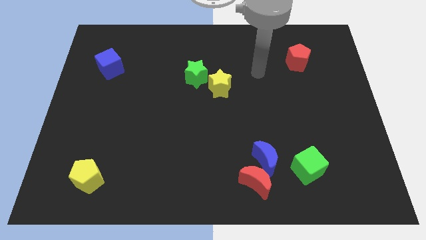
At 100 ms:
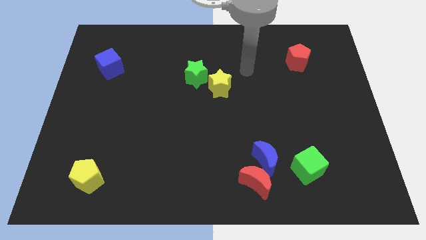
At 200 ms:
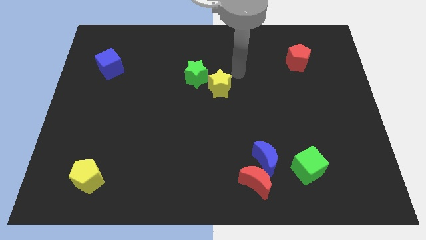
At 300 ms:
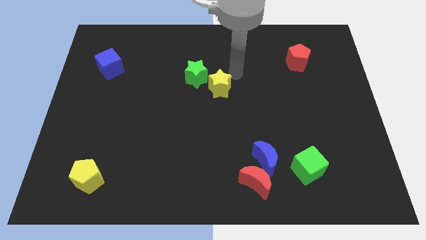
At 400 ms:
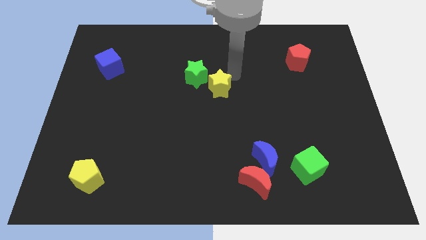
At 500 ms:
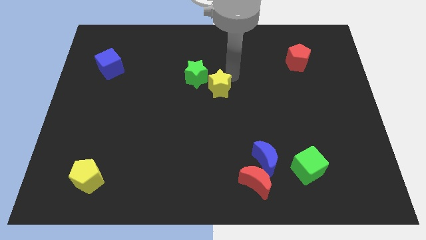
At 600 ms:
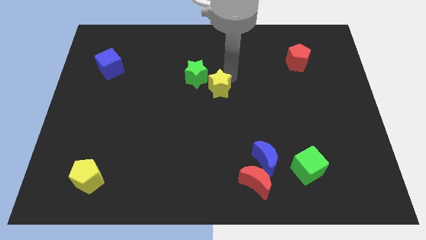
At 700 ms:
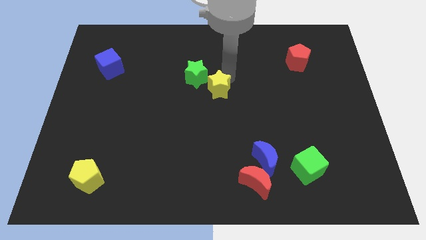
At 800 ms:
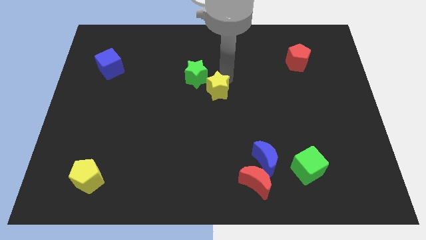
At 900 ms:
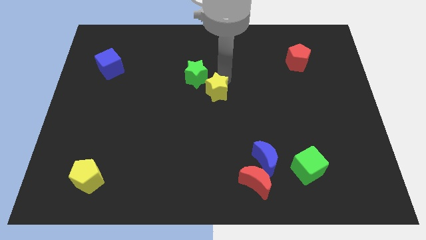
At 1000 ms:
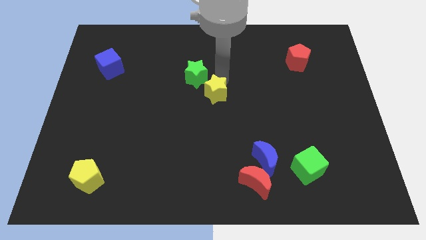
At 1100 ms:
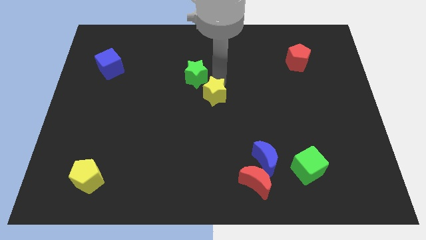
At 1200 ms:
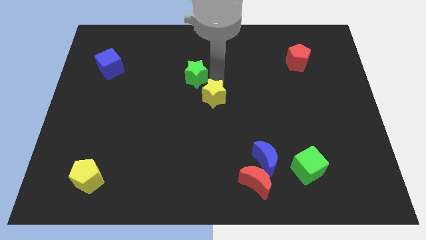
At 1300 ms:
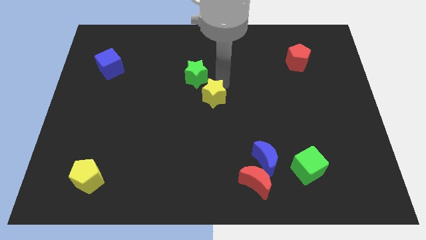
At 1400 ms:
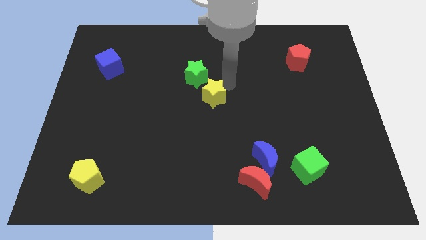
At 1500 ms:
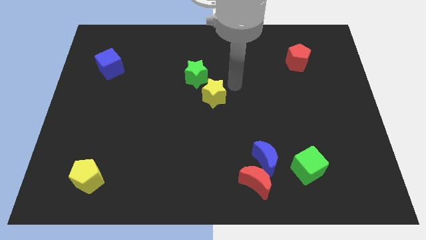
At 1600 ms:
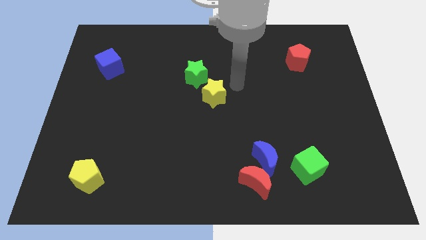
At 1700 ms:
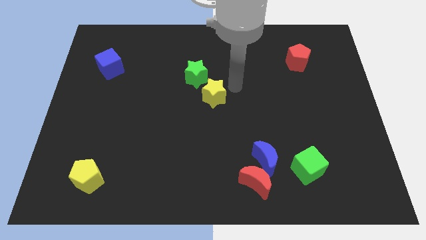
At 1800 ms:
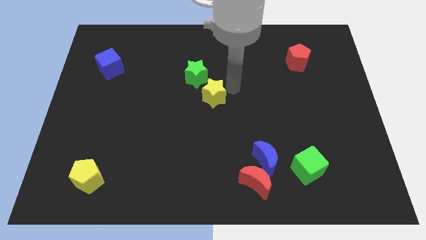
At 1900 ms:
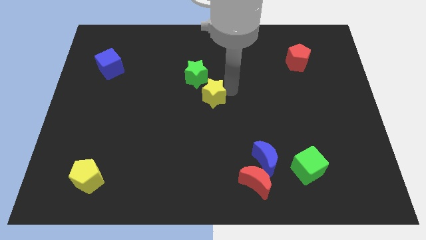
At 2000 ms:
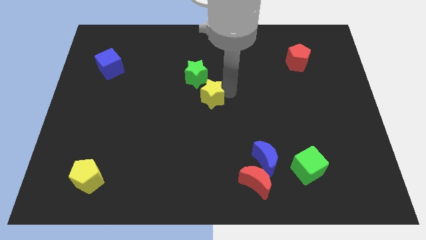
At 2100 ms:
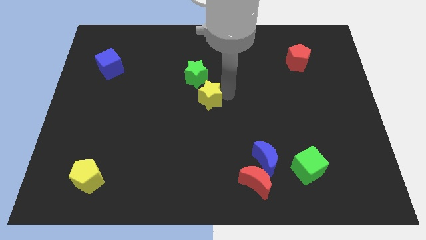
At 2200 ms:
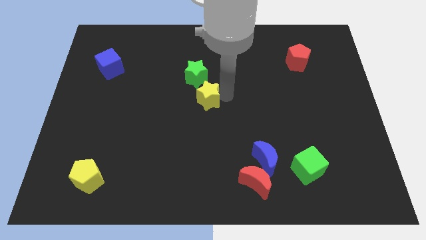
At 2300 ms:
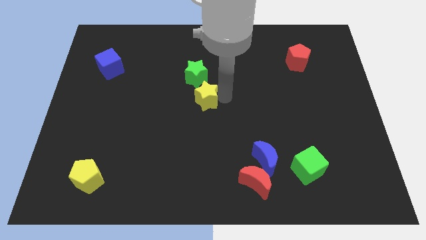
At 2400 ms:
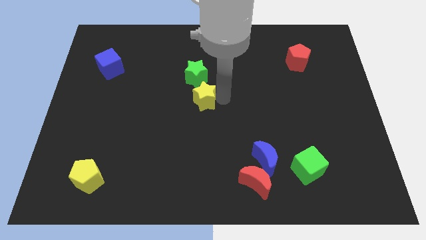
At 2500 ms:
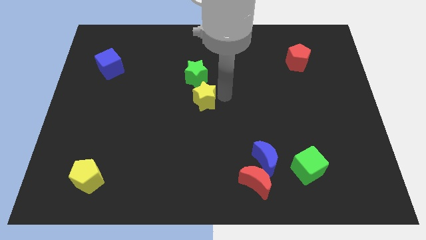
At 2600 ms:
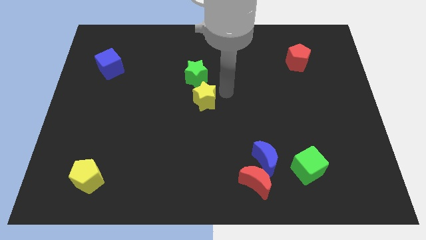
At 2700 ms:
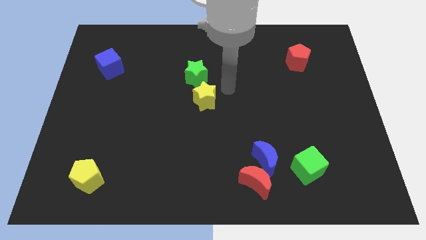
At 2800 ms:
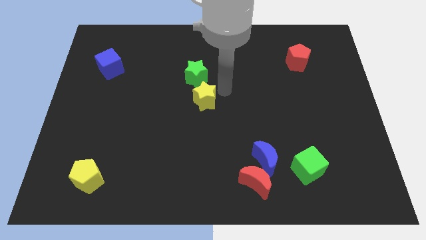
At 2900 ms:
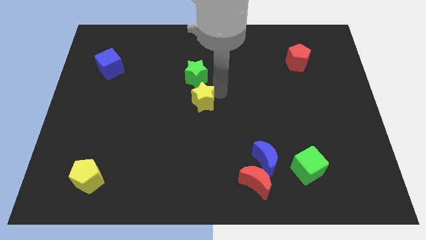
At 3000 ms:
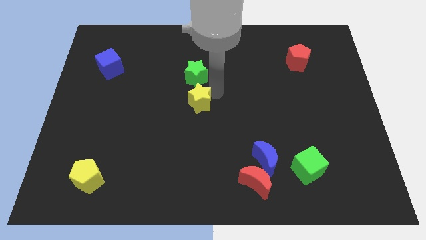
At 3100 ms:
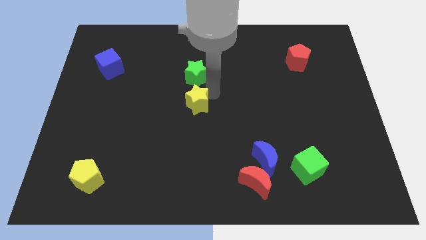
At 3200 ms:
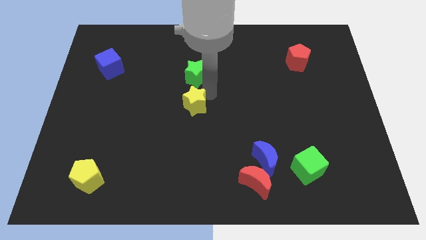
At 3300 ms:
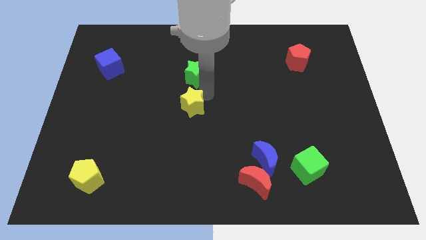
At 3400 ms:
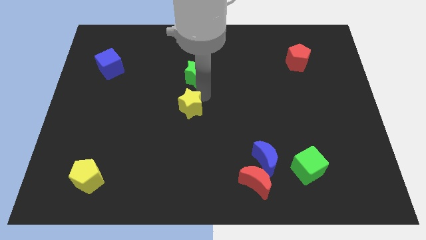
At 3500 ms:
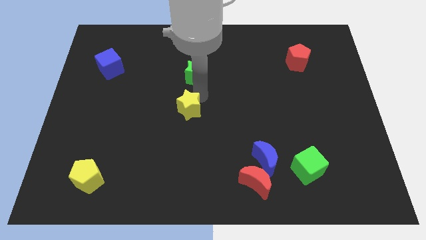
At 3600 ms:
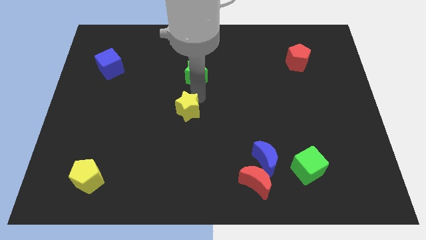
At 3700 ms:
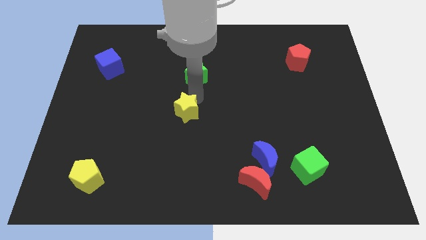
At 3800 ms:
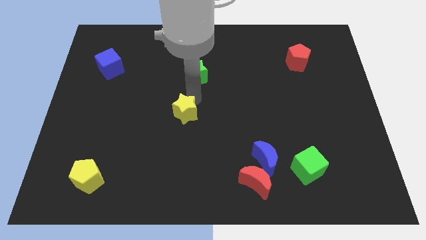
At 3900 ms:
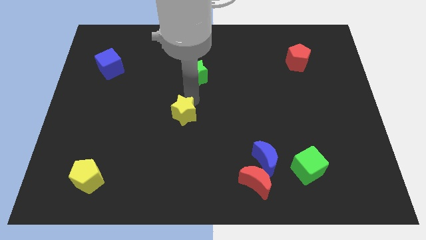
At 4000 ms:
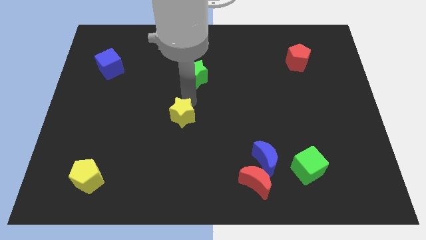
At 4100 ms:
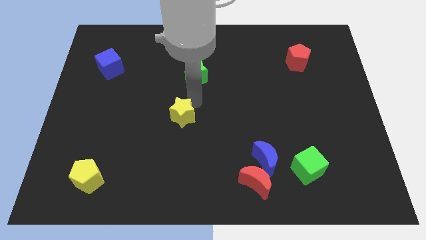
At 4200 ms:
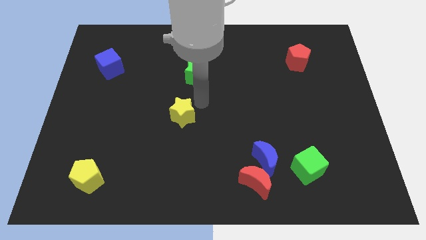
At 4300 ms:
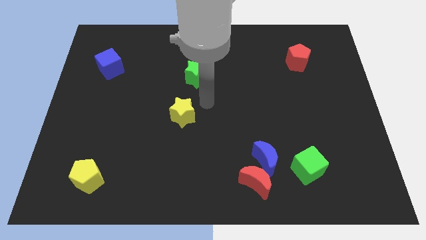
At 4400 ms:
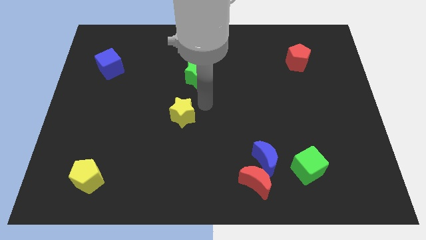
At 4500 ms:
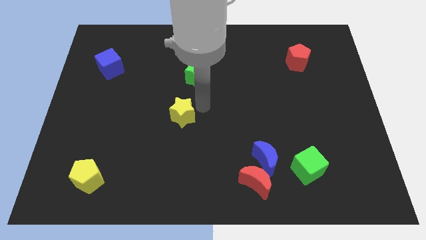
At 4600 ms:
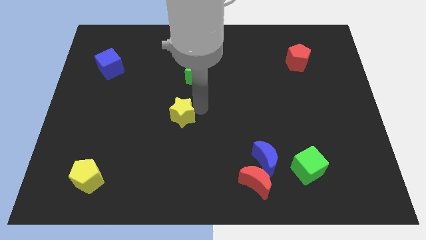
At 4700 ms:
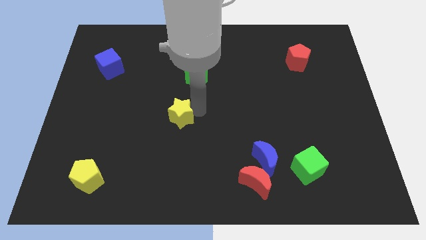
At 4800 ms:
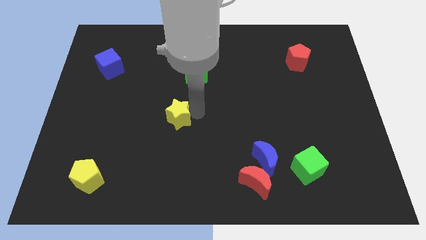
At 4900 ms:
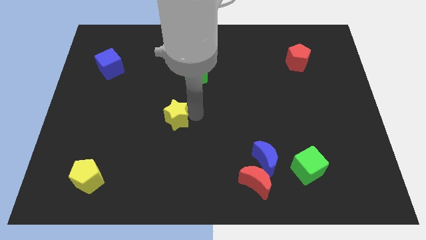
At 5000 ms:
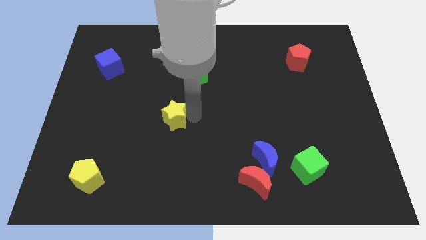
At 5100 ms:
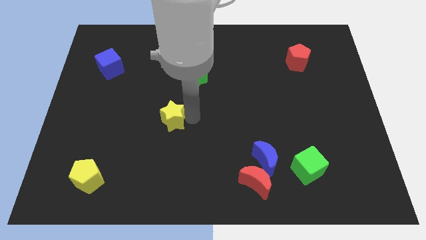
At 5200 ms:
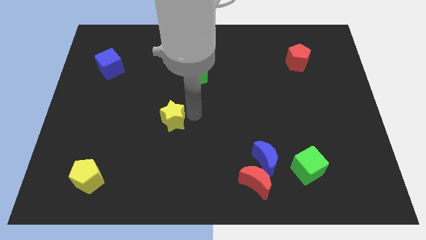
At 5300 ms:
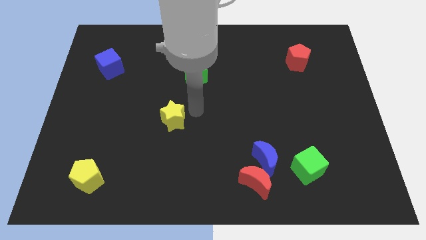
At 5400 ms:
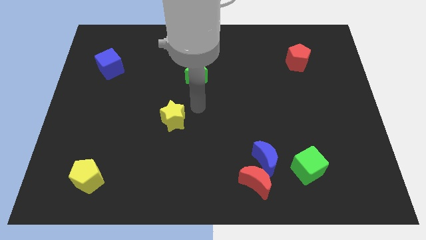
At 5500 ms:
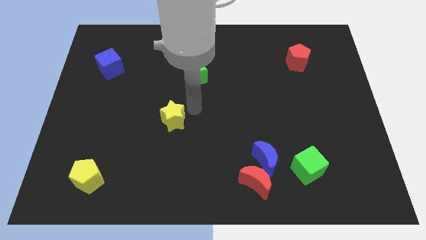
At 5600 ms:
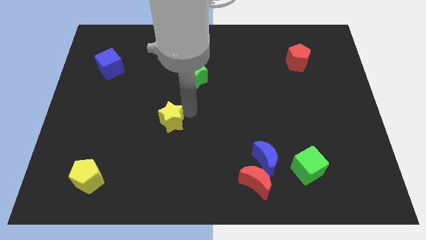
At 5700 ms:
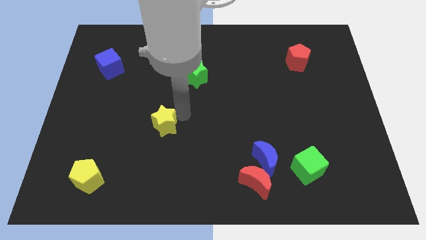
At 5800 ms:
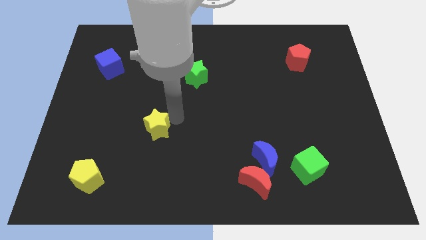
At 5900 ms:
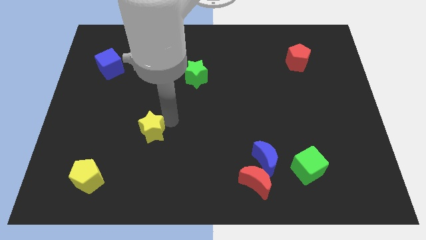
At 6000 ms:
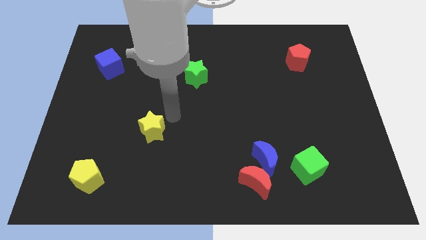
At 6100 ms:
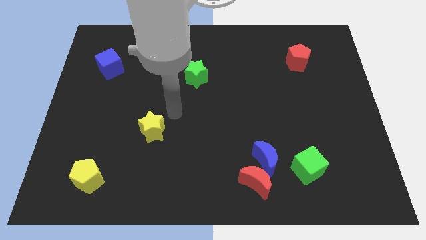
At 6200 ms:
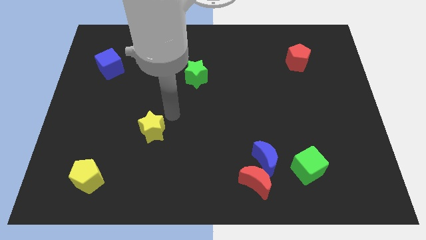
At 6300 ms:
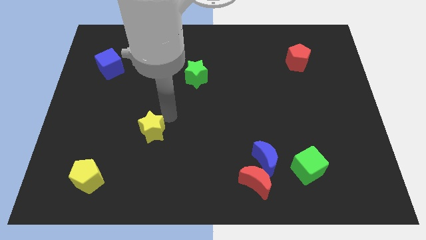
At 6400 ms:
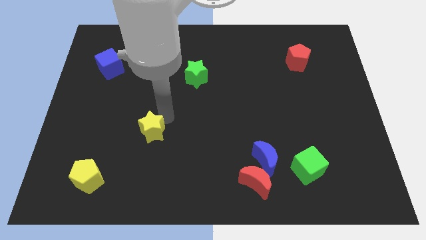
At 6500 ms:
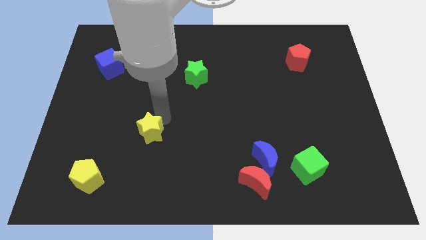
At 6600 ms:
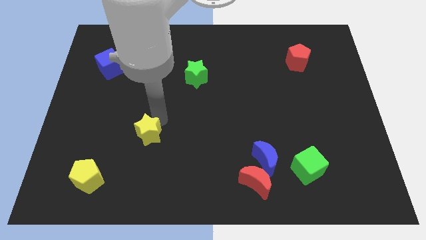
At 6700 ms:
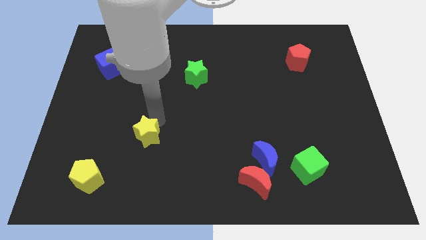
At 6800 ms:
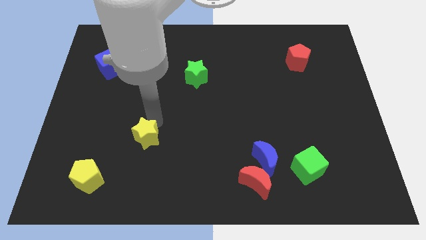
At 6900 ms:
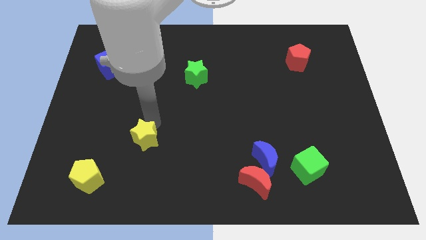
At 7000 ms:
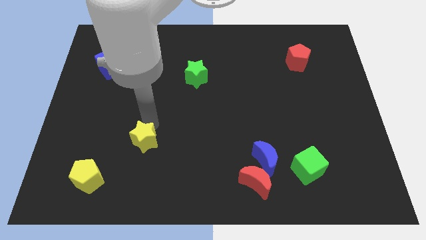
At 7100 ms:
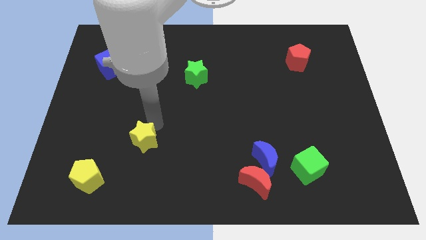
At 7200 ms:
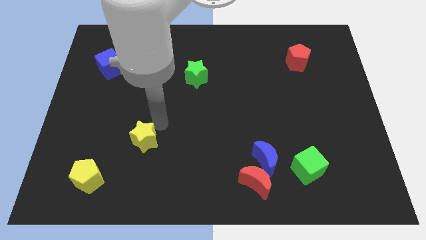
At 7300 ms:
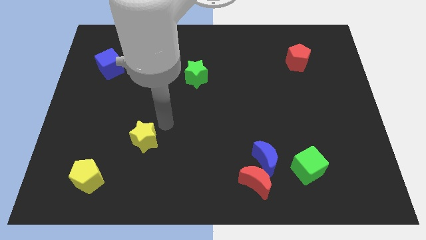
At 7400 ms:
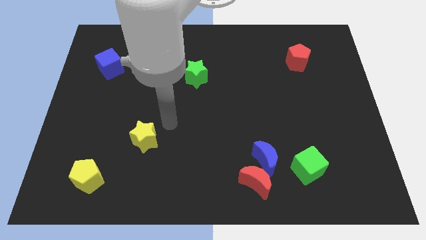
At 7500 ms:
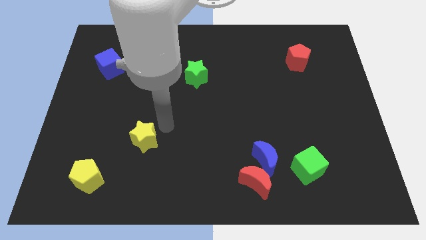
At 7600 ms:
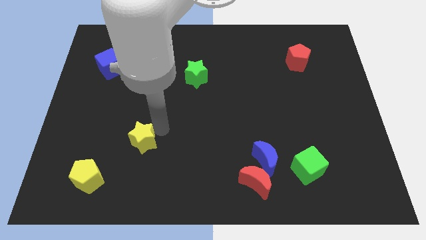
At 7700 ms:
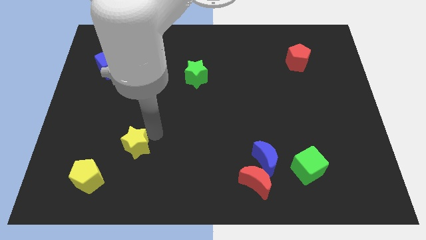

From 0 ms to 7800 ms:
push the yellow star to the top right side of the yellow pentagon
